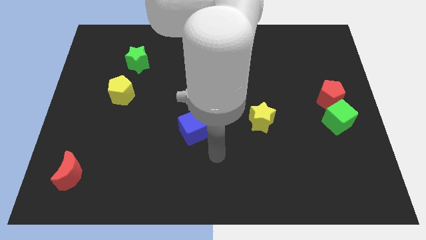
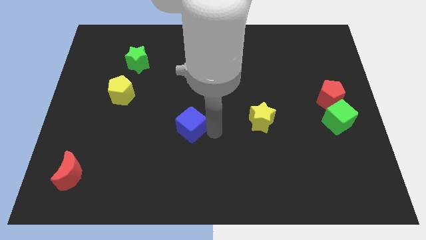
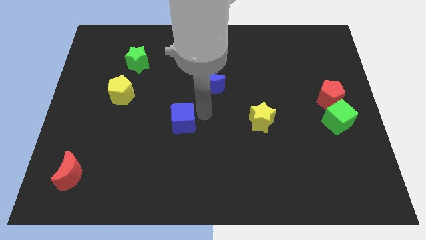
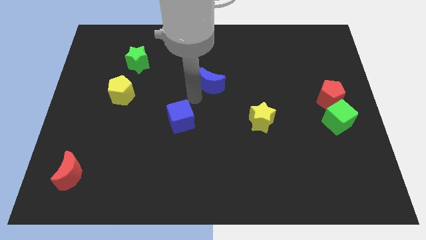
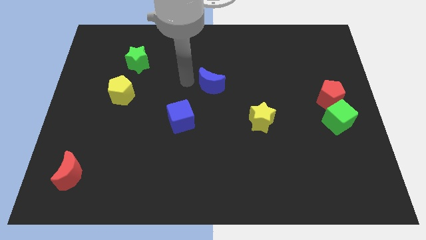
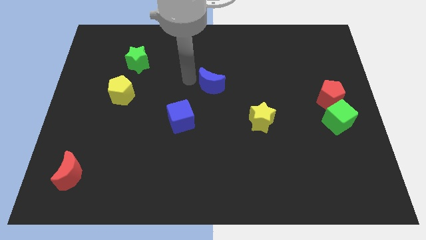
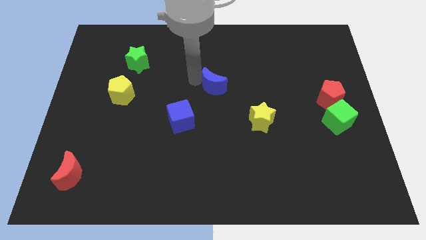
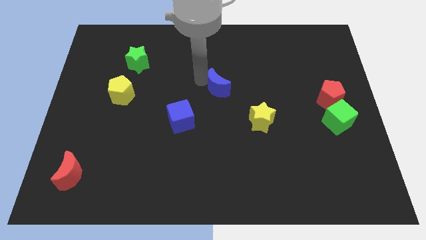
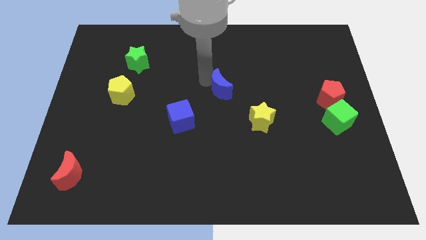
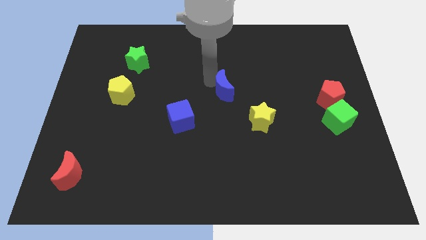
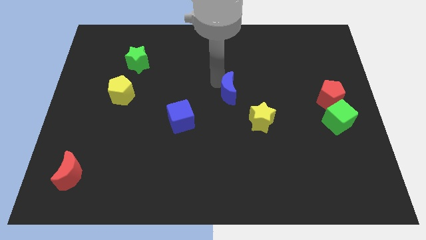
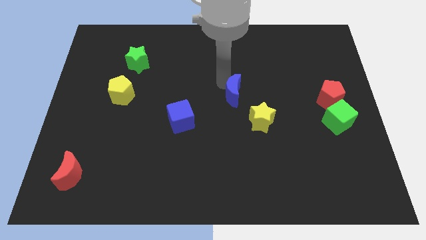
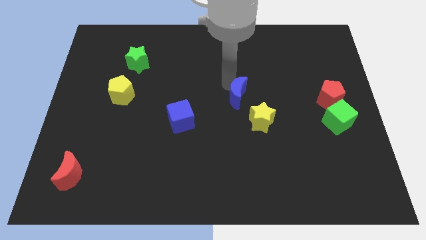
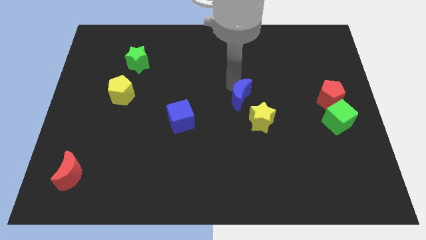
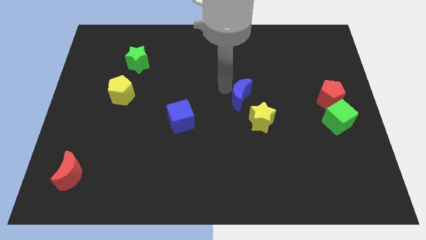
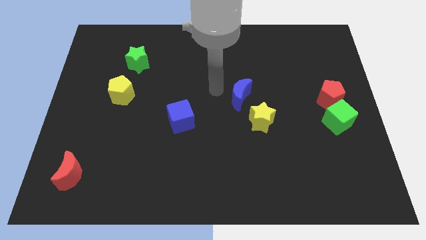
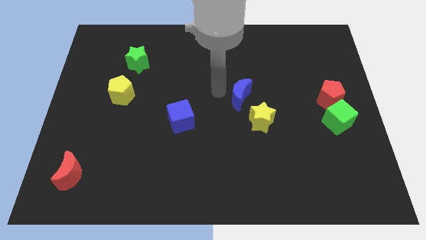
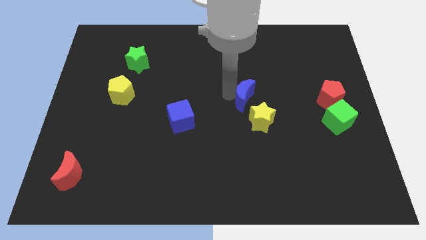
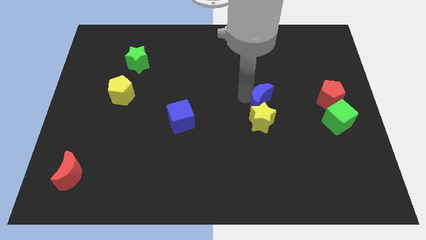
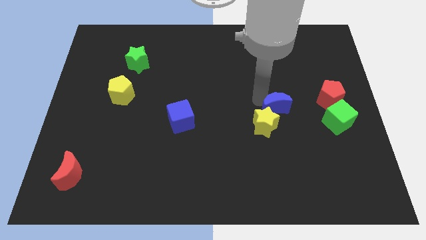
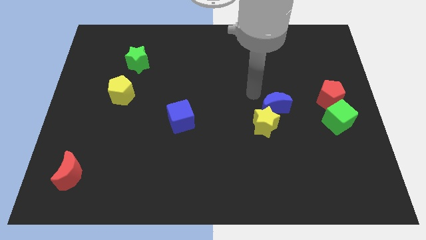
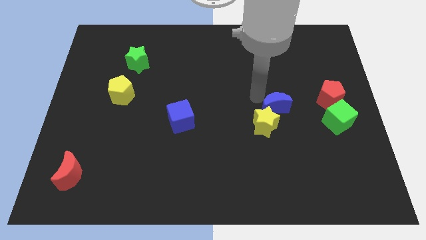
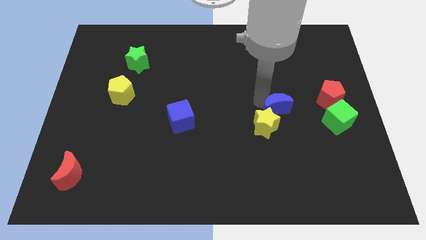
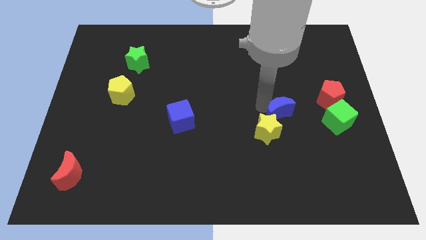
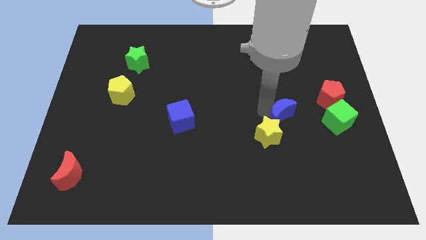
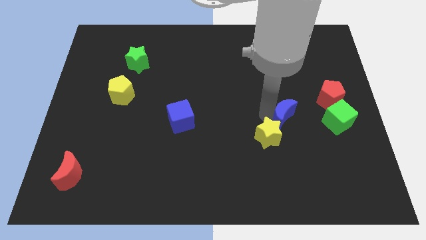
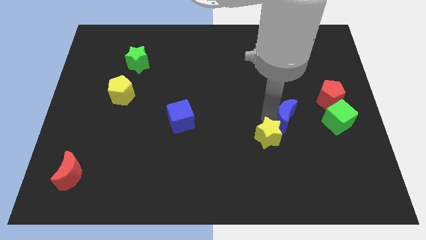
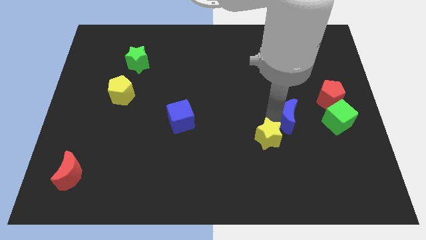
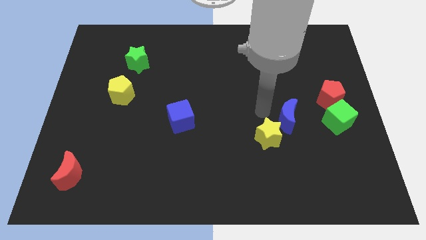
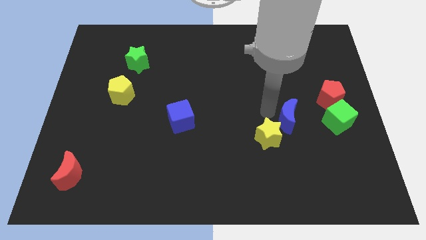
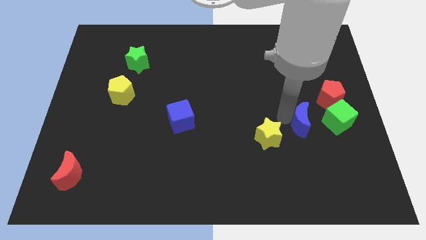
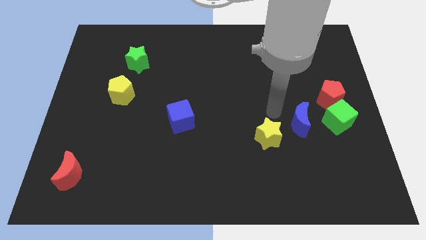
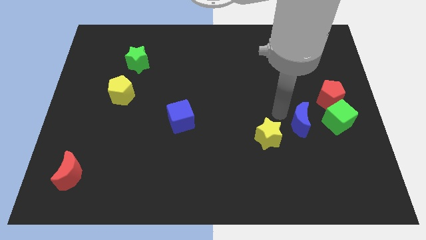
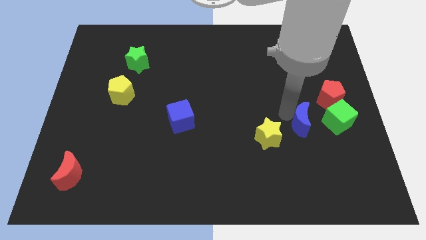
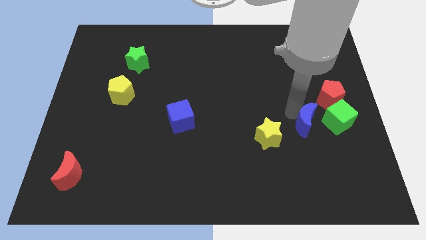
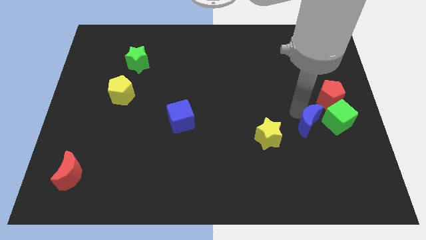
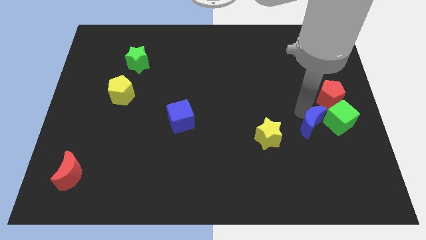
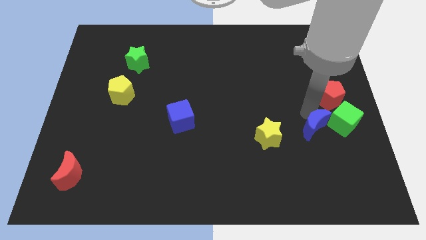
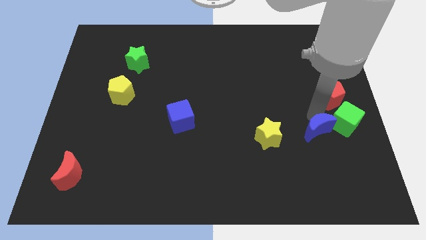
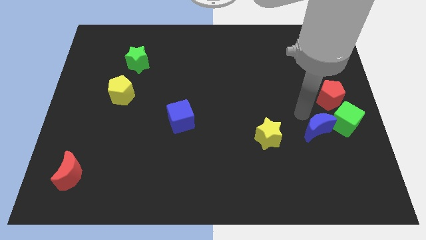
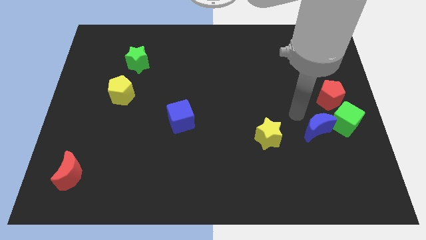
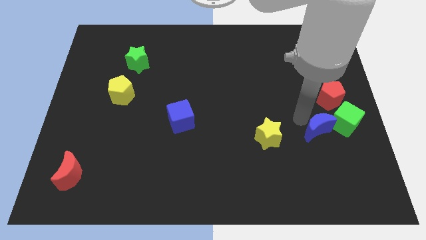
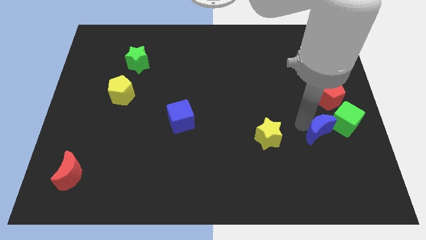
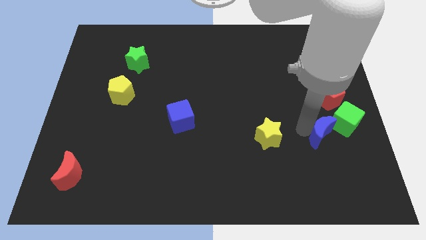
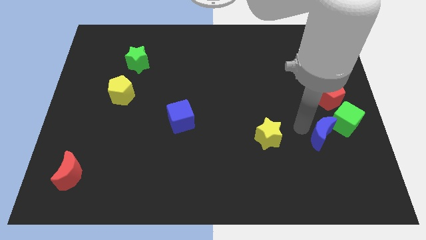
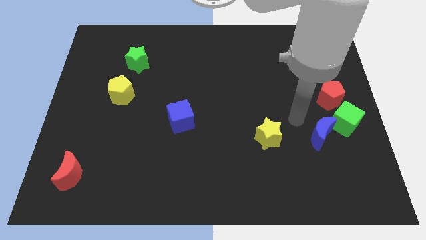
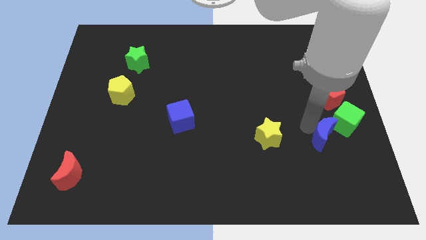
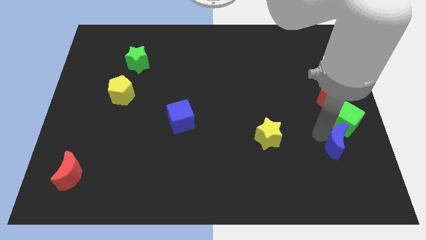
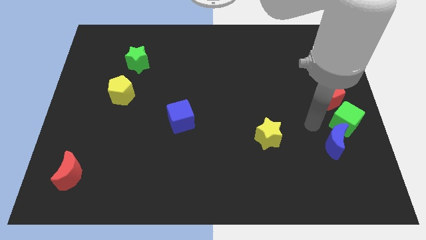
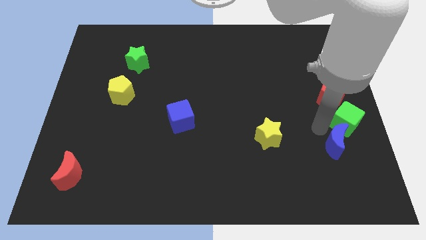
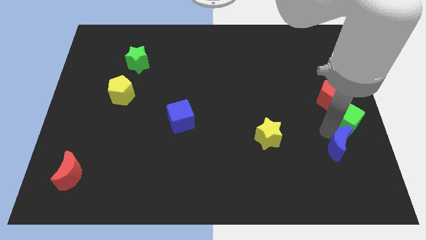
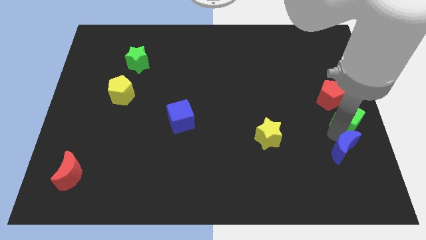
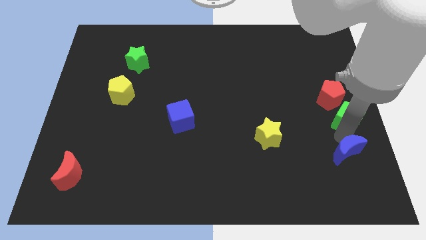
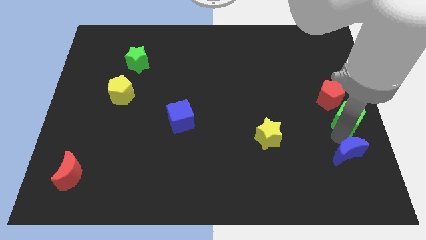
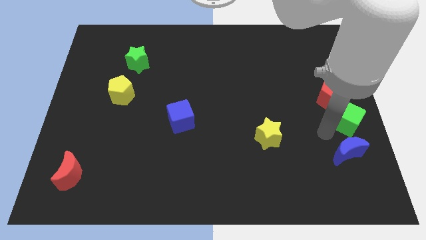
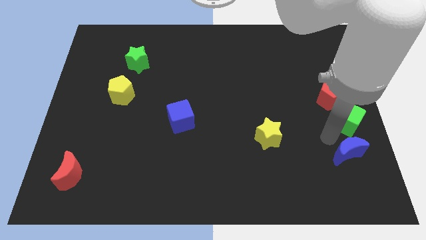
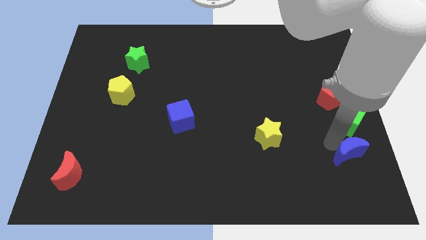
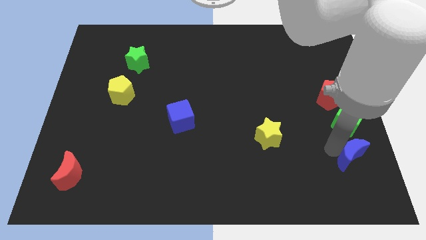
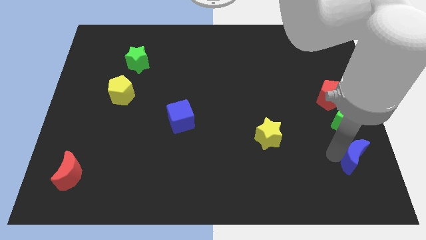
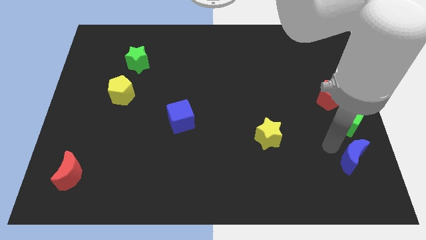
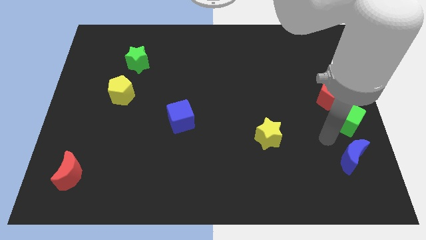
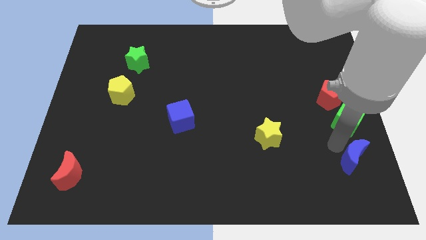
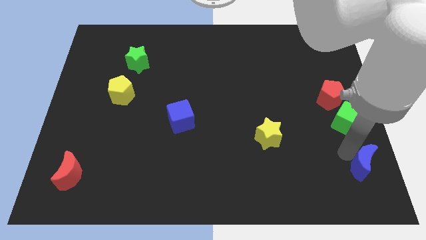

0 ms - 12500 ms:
put the blue moon to the lower right corner

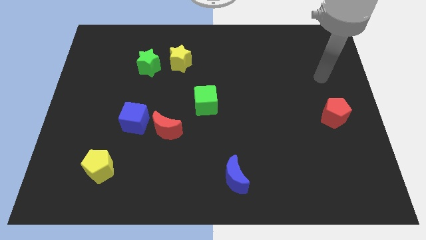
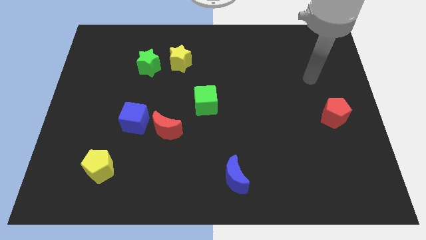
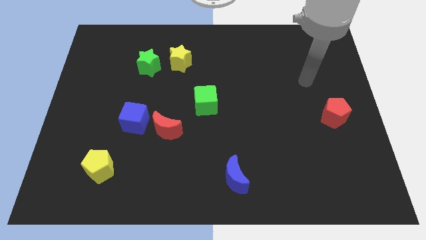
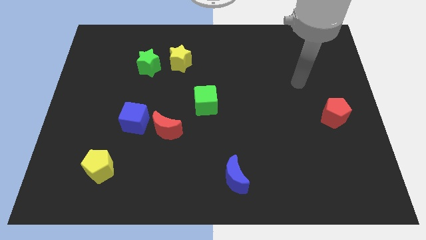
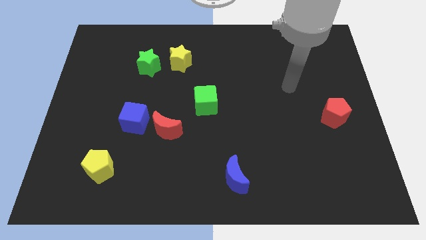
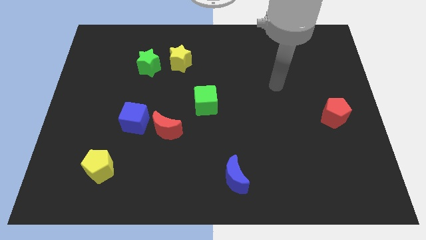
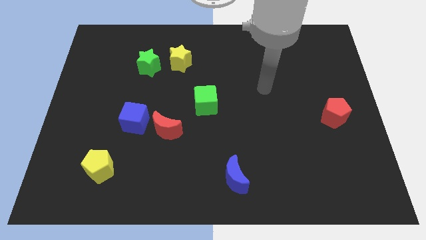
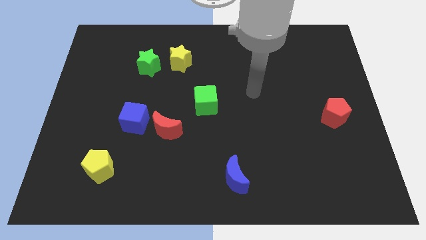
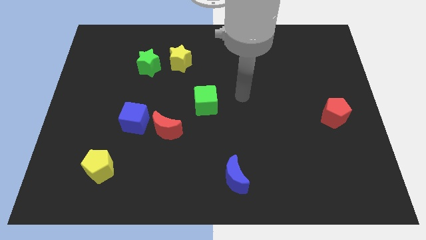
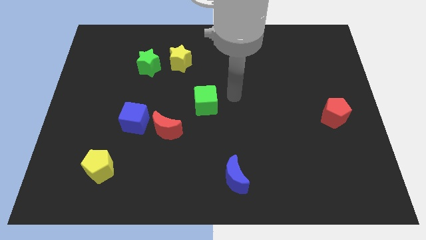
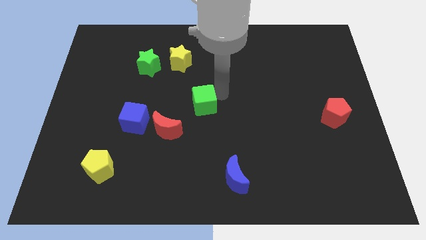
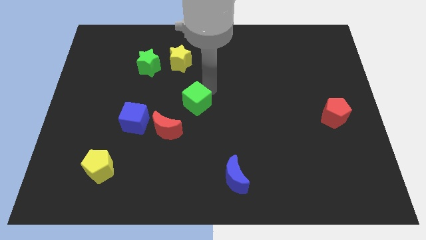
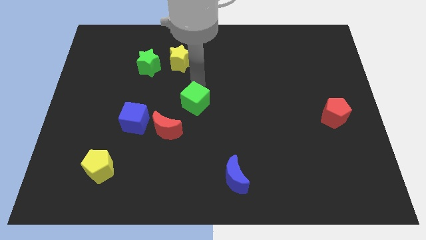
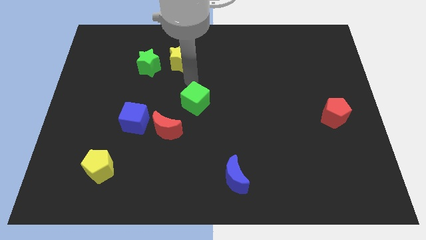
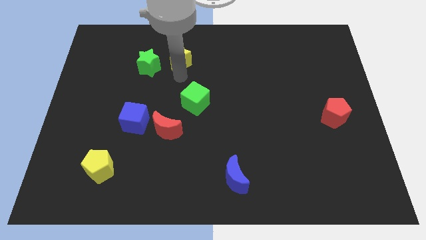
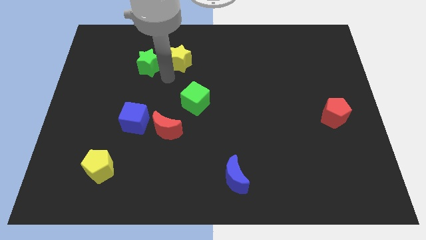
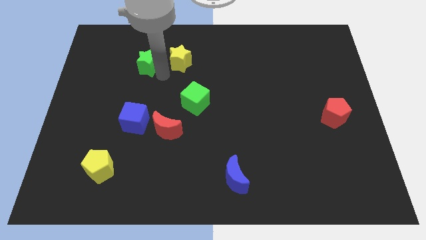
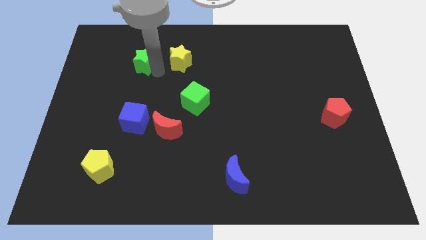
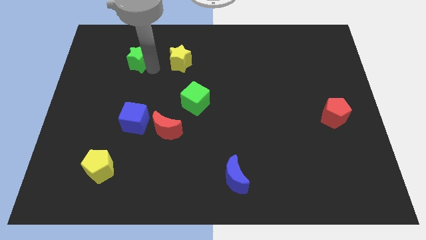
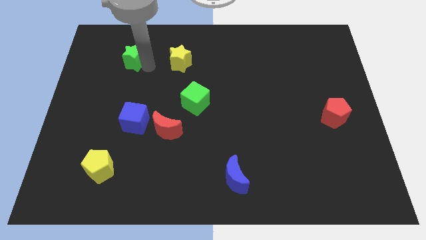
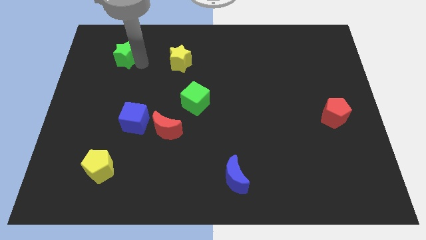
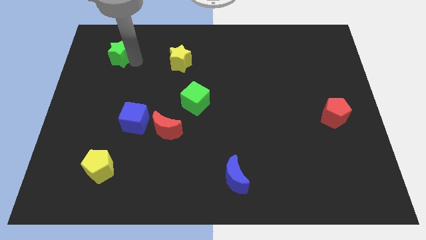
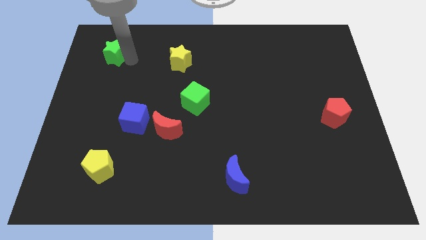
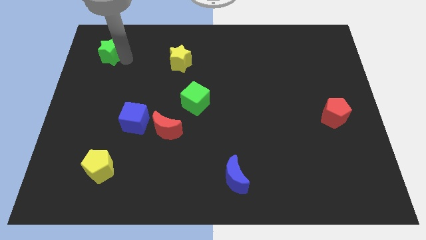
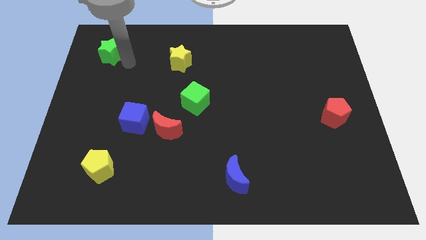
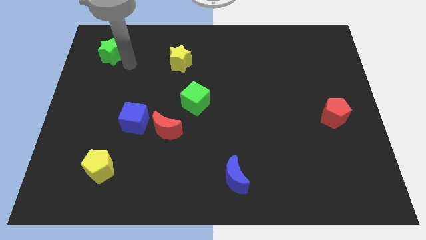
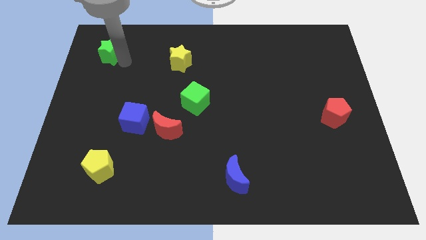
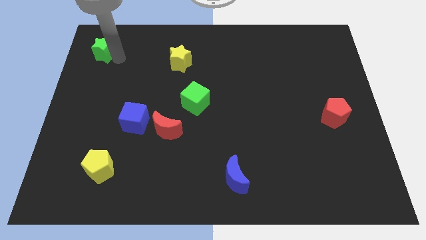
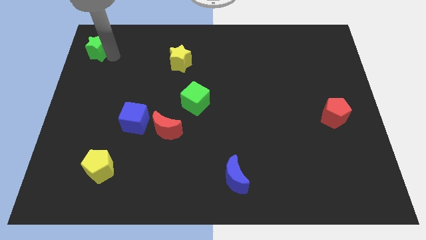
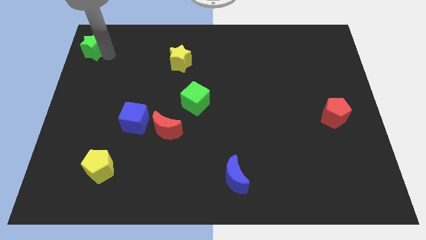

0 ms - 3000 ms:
slide the green star to the upper left corner
